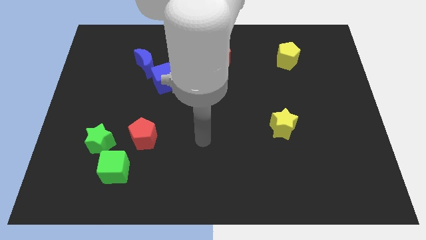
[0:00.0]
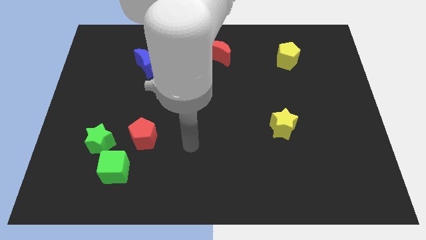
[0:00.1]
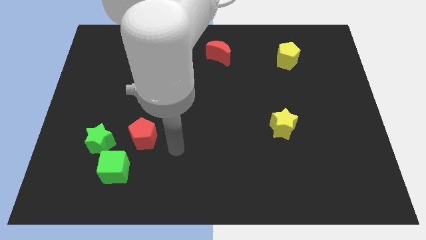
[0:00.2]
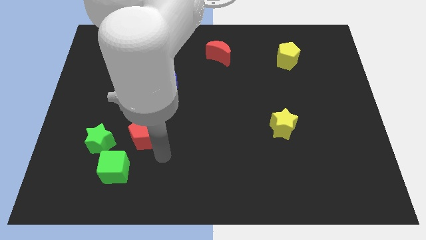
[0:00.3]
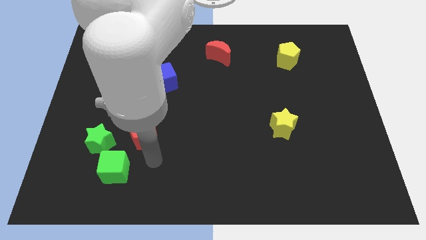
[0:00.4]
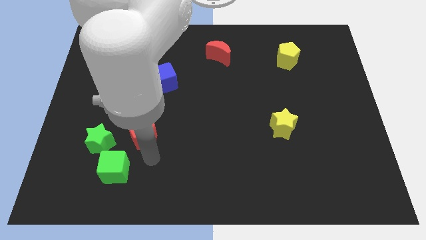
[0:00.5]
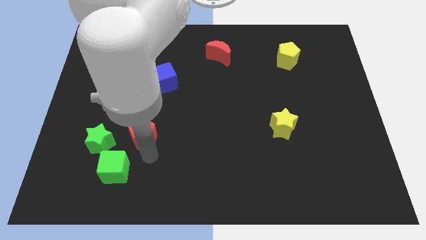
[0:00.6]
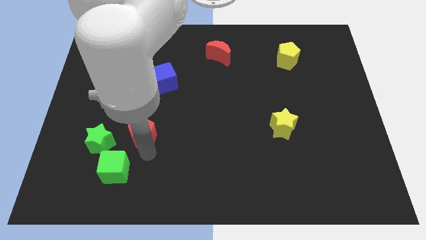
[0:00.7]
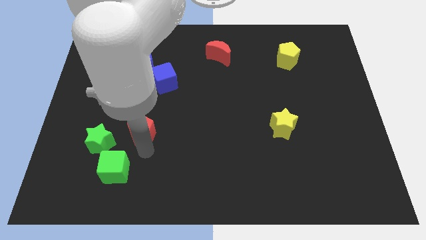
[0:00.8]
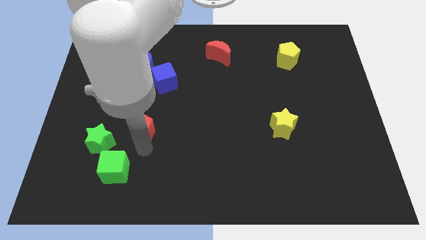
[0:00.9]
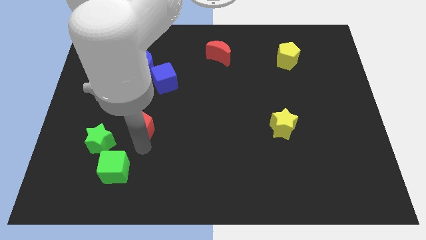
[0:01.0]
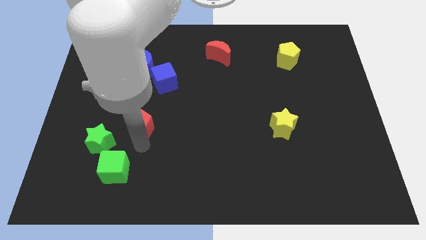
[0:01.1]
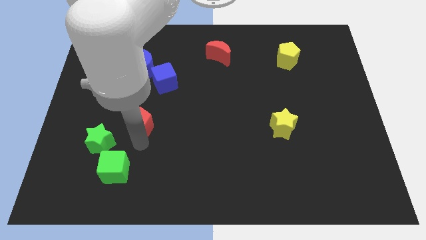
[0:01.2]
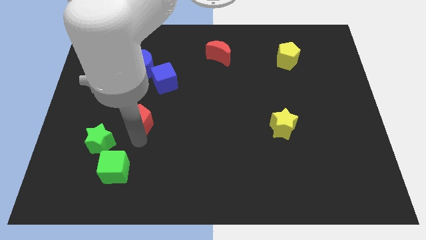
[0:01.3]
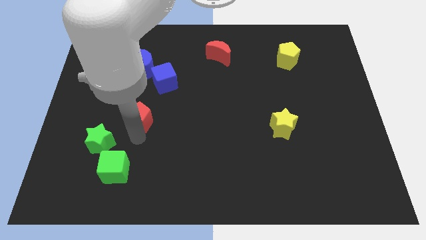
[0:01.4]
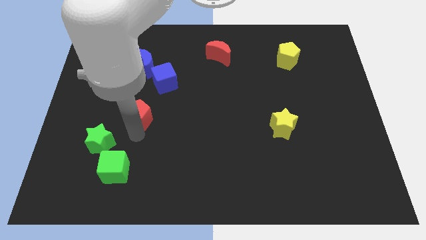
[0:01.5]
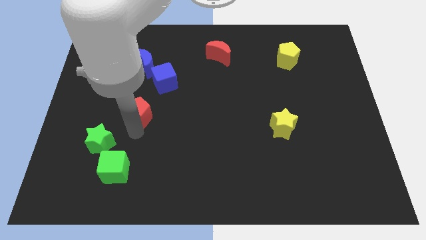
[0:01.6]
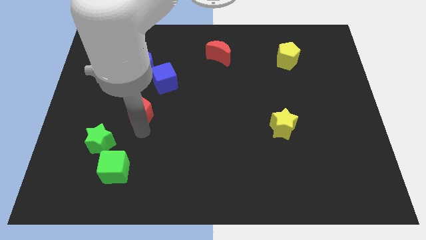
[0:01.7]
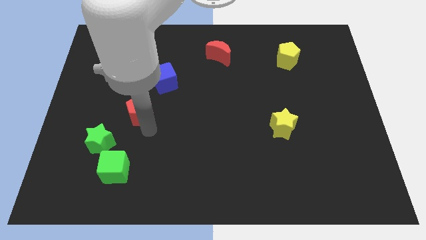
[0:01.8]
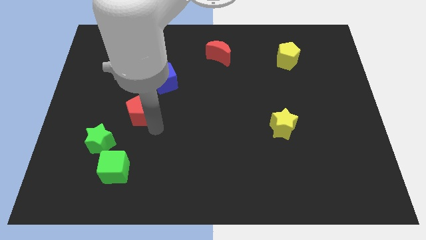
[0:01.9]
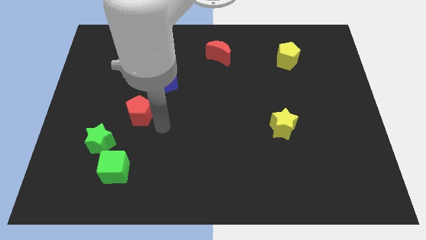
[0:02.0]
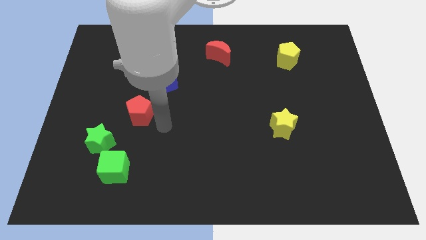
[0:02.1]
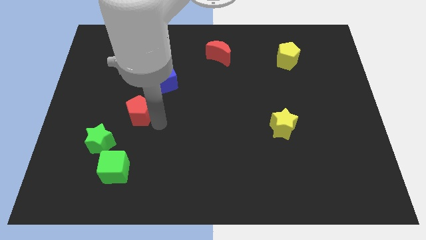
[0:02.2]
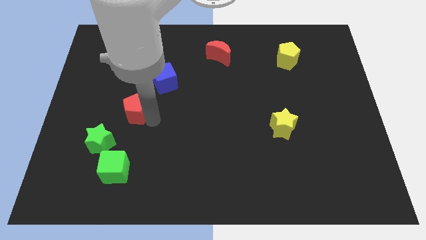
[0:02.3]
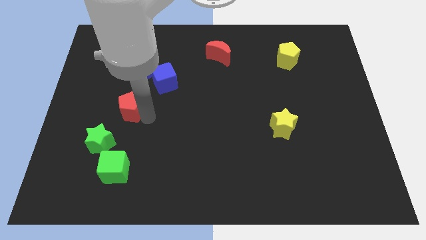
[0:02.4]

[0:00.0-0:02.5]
slightly push the red pentagon diagonally up and left

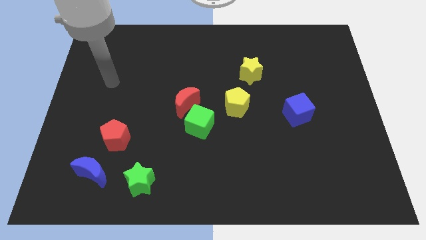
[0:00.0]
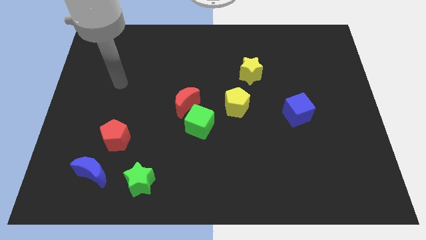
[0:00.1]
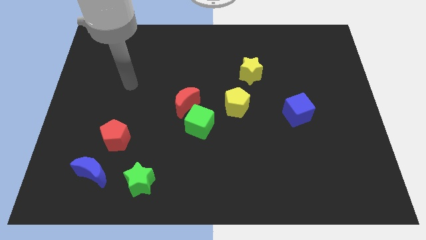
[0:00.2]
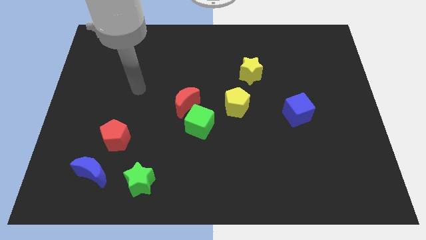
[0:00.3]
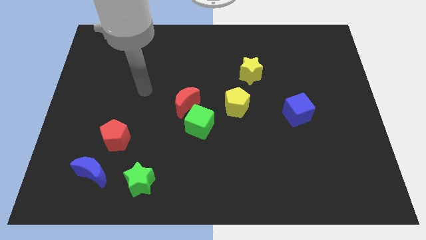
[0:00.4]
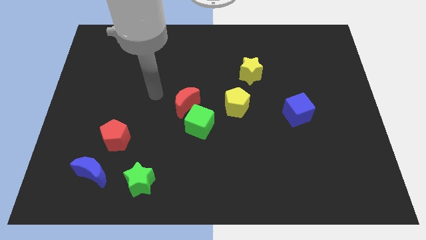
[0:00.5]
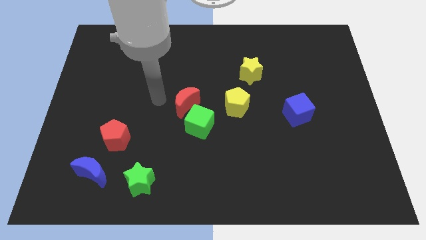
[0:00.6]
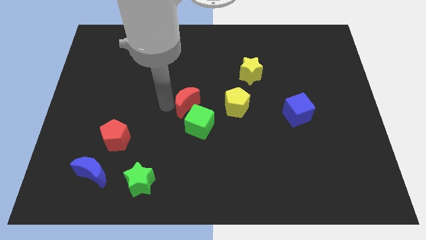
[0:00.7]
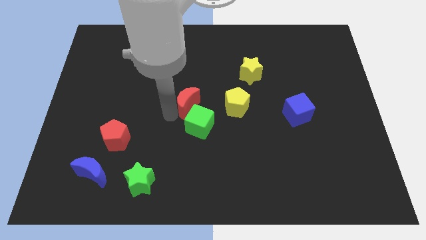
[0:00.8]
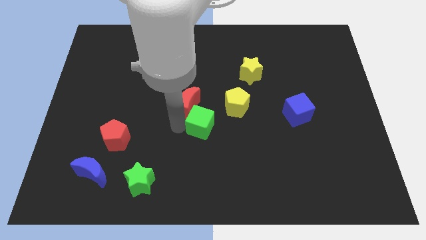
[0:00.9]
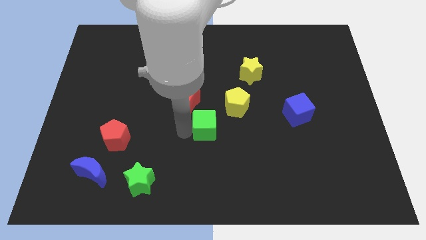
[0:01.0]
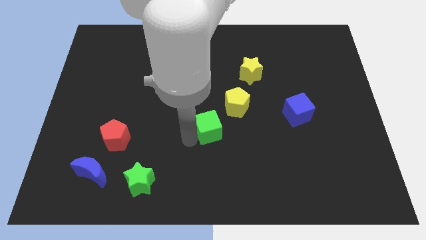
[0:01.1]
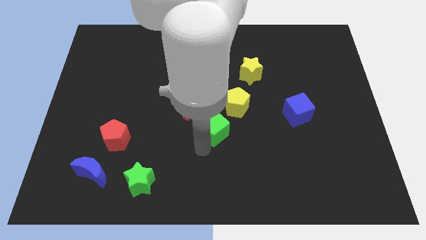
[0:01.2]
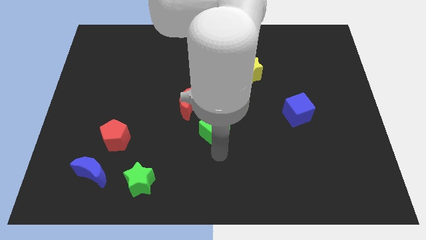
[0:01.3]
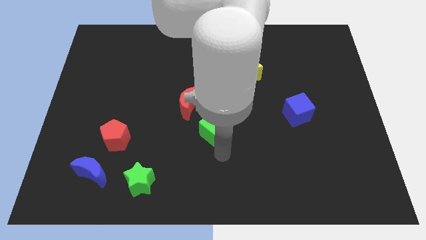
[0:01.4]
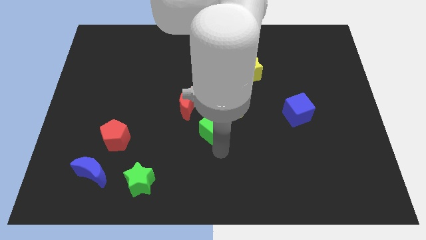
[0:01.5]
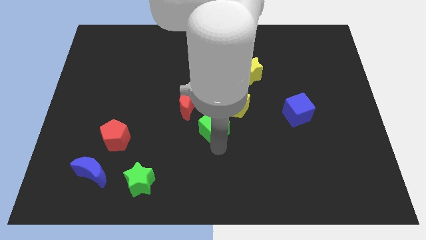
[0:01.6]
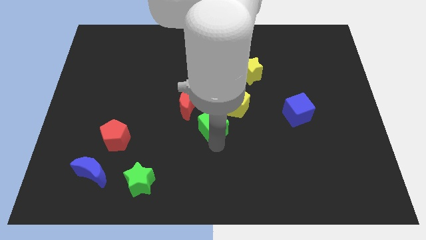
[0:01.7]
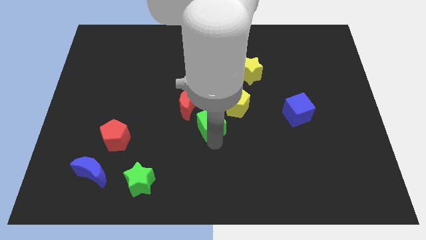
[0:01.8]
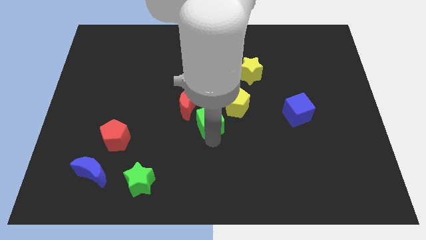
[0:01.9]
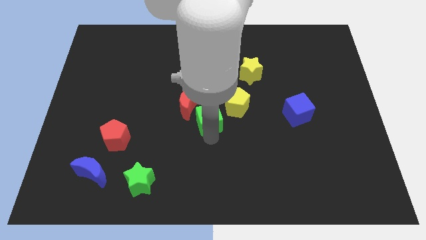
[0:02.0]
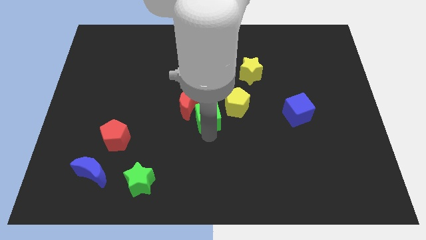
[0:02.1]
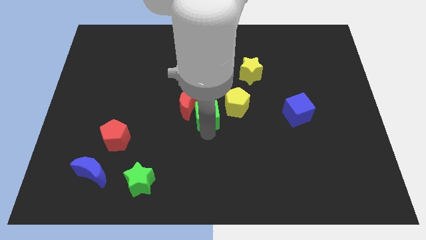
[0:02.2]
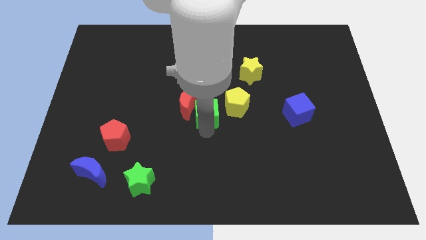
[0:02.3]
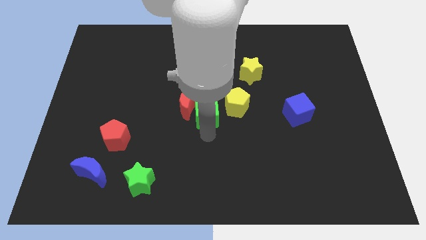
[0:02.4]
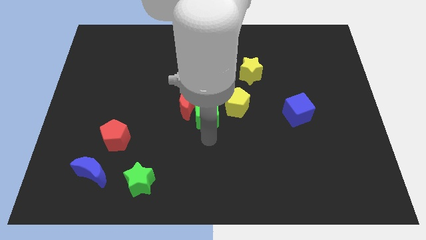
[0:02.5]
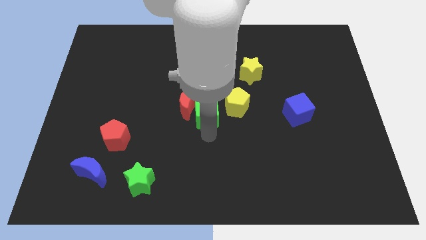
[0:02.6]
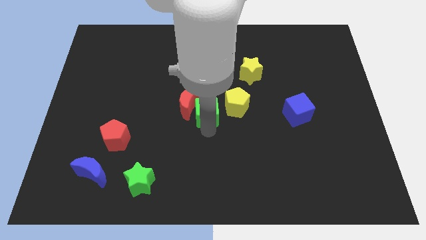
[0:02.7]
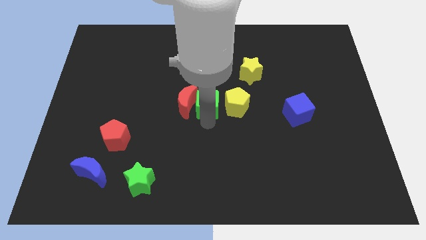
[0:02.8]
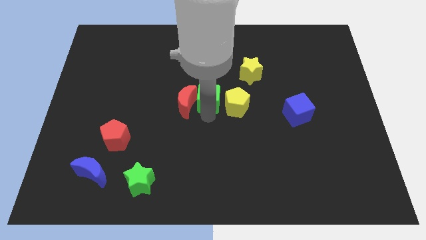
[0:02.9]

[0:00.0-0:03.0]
slightly slide the green cube upwards

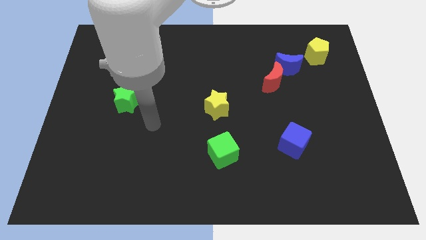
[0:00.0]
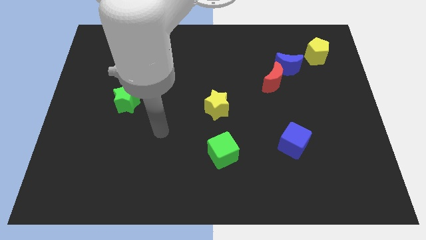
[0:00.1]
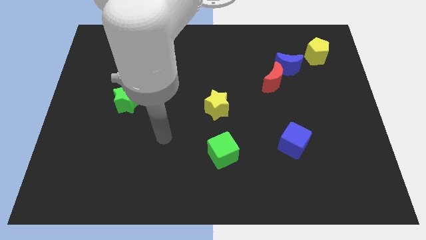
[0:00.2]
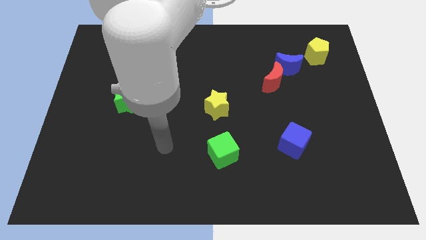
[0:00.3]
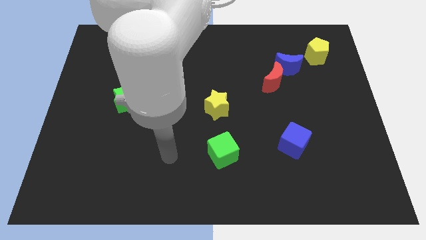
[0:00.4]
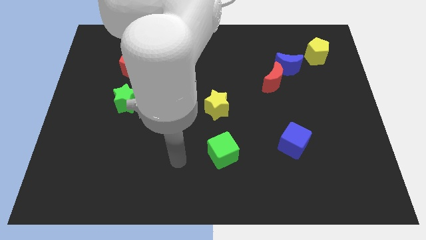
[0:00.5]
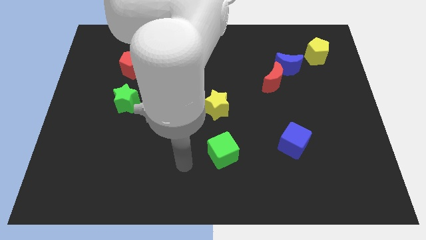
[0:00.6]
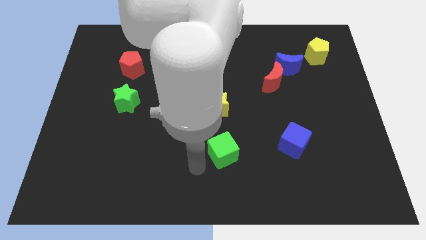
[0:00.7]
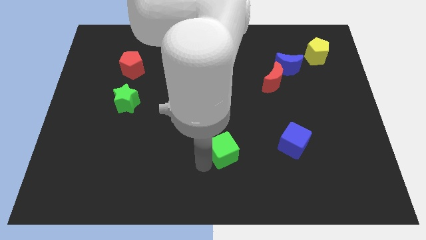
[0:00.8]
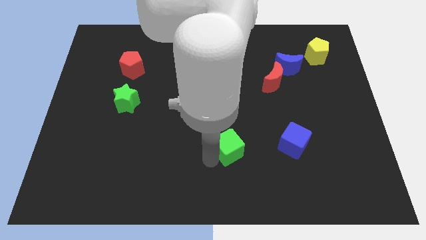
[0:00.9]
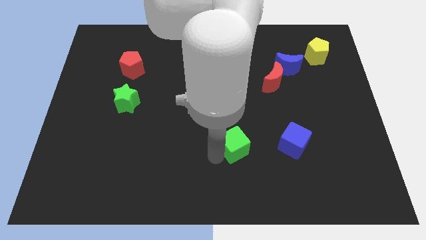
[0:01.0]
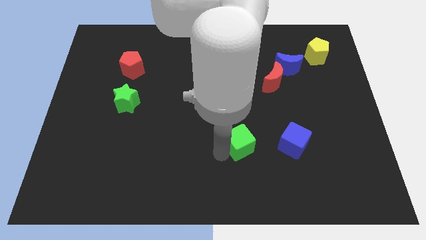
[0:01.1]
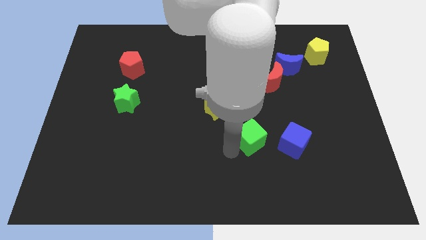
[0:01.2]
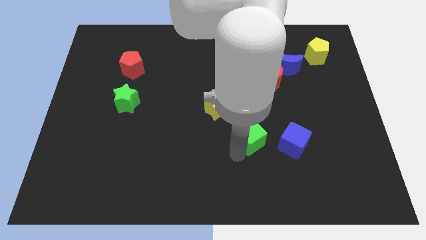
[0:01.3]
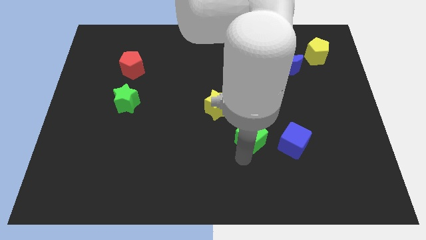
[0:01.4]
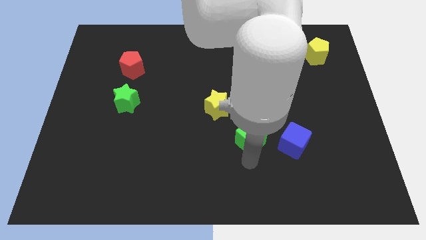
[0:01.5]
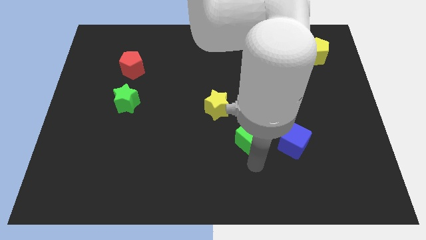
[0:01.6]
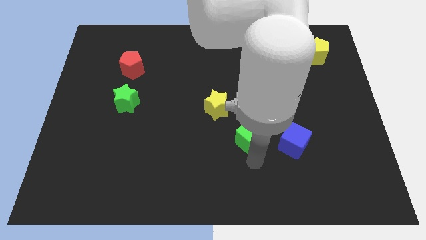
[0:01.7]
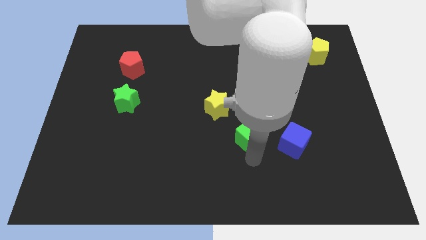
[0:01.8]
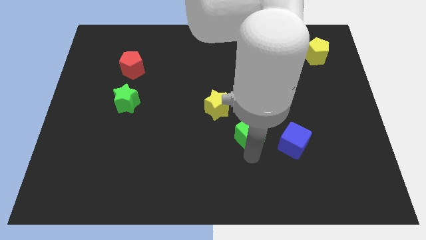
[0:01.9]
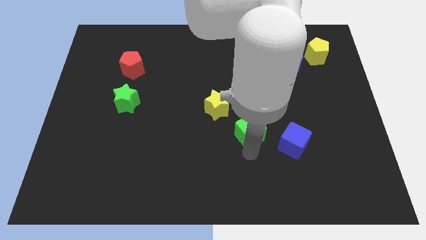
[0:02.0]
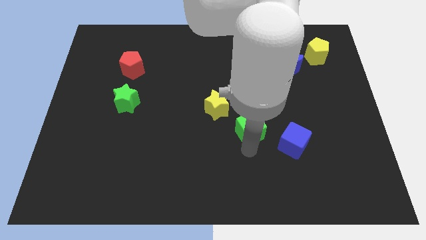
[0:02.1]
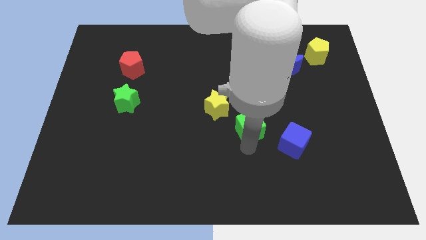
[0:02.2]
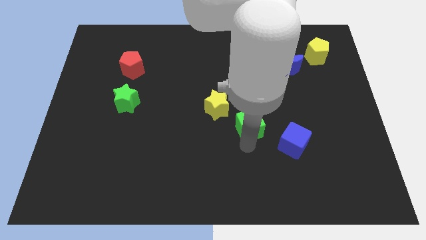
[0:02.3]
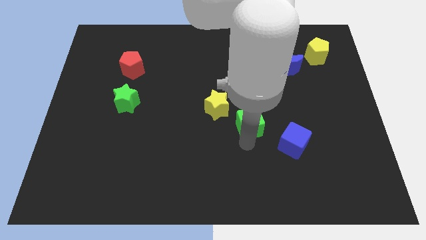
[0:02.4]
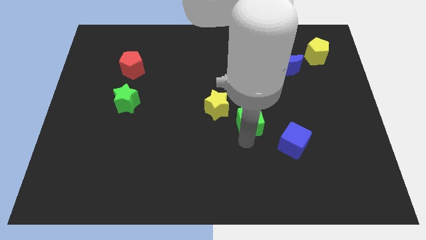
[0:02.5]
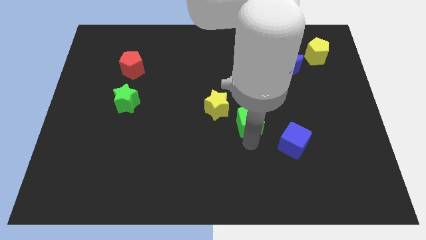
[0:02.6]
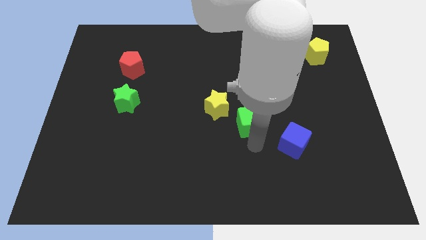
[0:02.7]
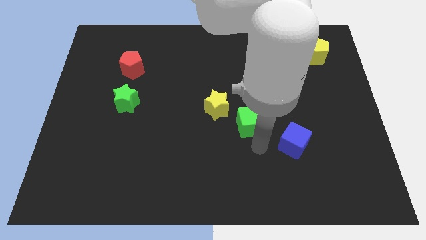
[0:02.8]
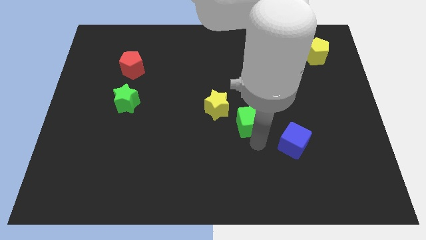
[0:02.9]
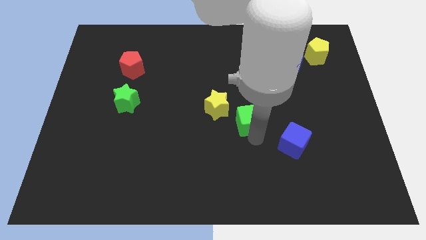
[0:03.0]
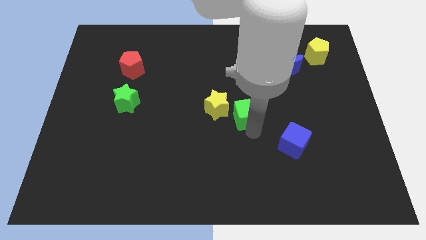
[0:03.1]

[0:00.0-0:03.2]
move the green cube up a little bit
